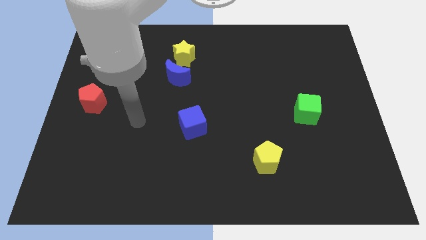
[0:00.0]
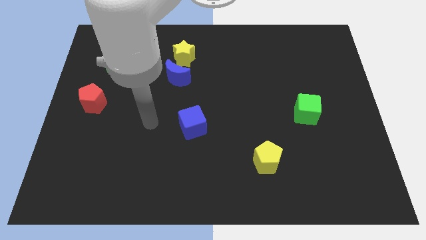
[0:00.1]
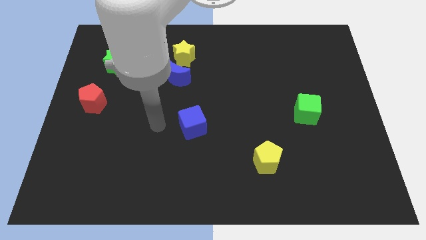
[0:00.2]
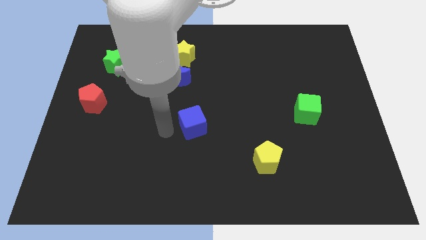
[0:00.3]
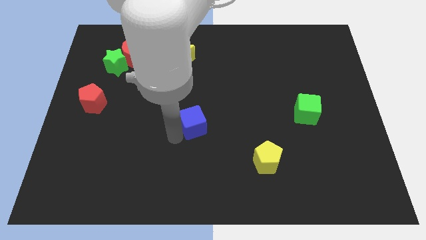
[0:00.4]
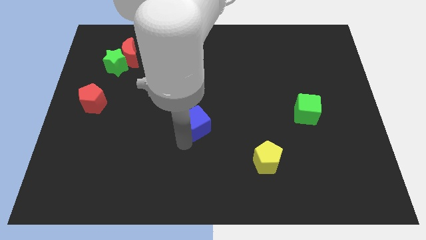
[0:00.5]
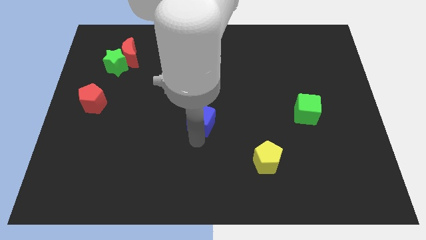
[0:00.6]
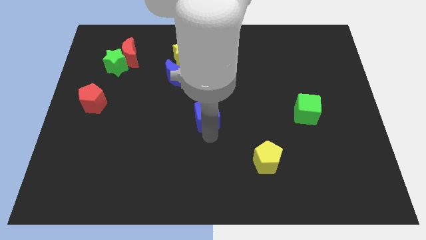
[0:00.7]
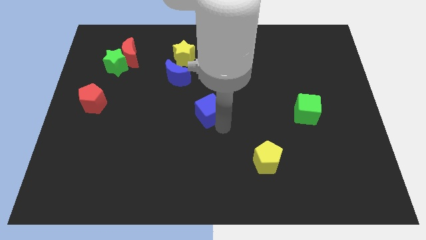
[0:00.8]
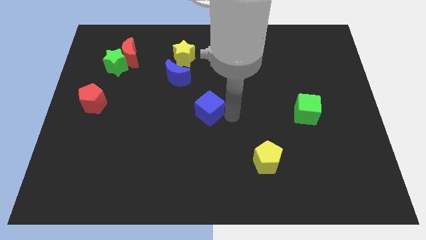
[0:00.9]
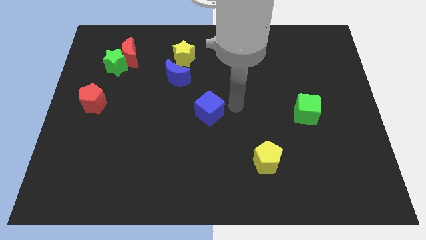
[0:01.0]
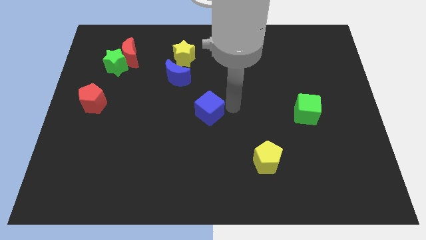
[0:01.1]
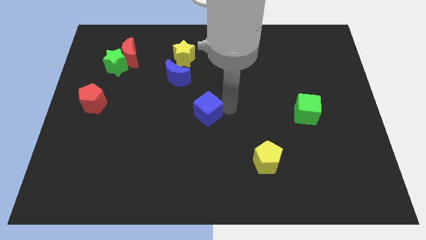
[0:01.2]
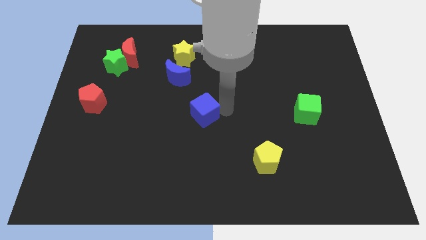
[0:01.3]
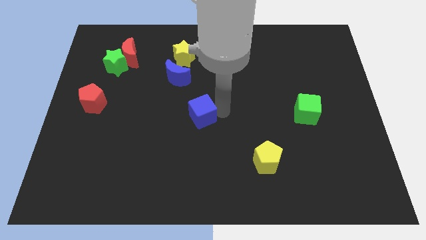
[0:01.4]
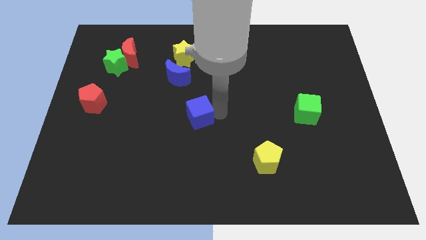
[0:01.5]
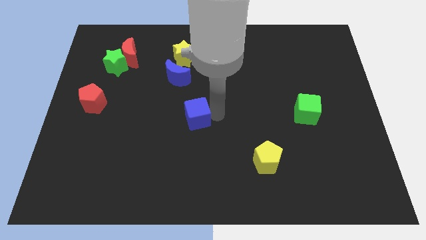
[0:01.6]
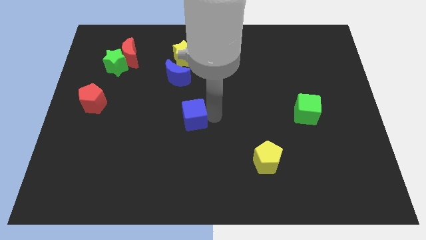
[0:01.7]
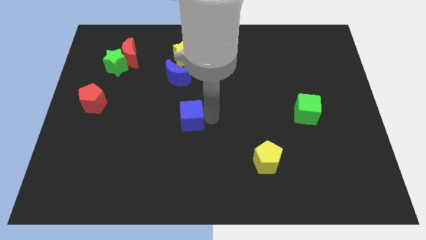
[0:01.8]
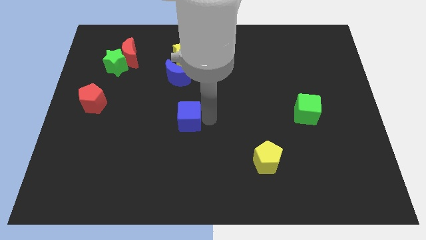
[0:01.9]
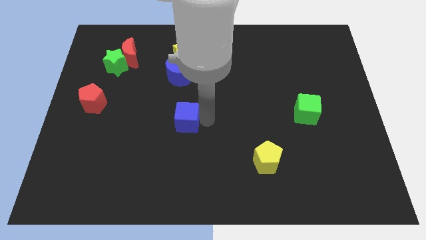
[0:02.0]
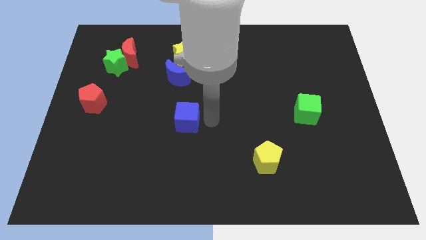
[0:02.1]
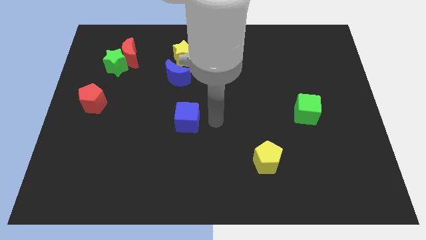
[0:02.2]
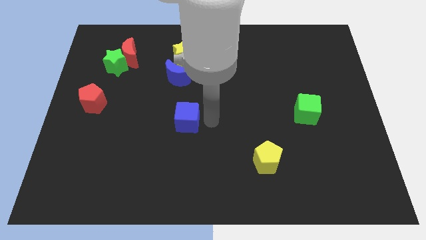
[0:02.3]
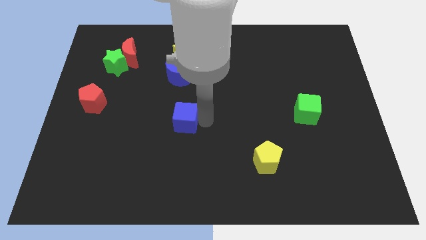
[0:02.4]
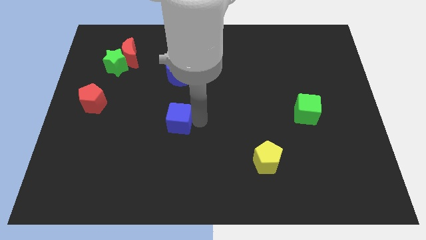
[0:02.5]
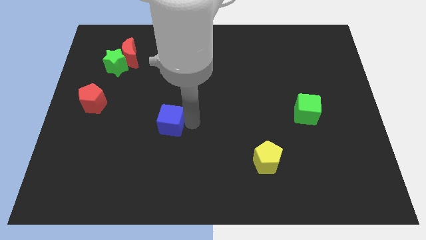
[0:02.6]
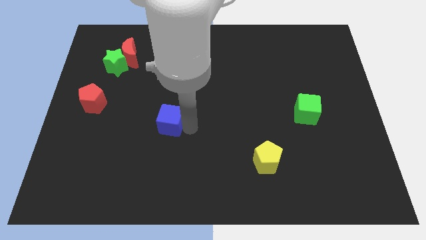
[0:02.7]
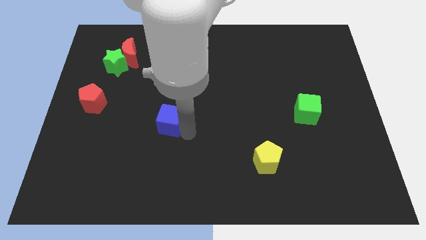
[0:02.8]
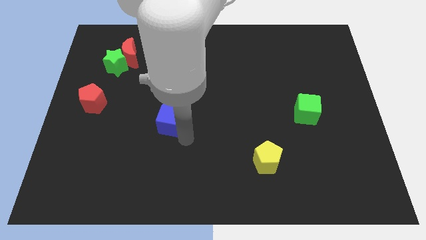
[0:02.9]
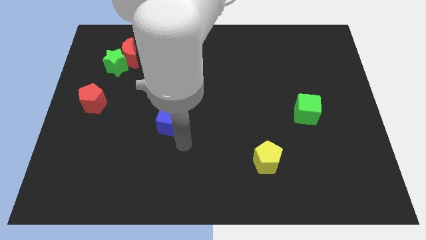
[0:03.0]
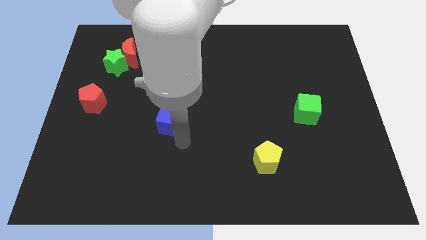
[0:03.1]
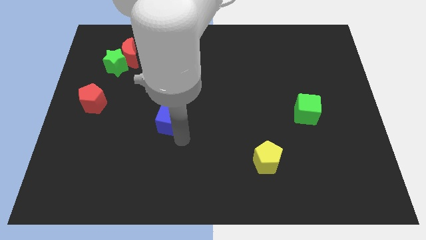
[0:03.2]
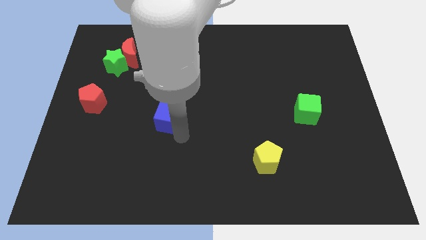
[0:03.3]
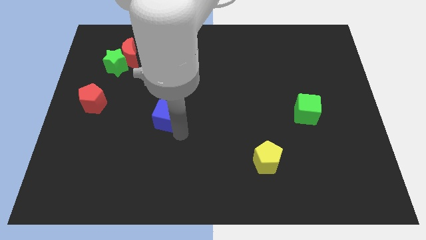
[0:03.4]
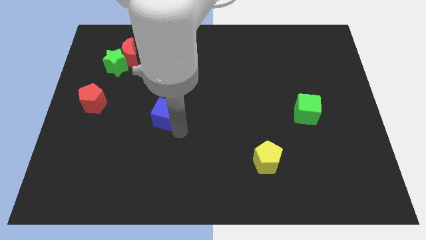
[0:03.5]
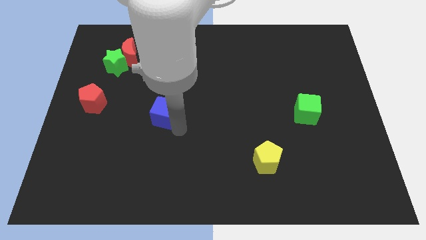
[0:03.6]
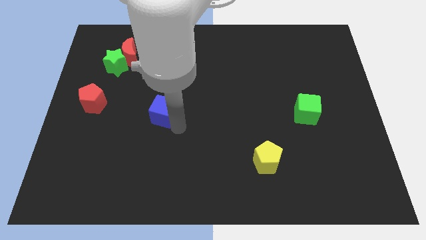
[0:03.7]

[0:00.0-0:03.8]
push the blue cube up and left diagonally somewhat

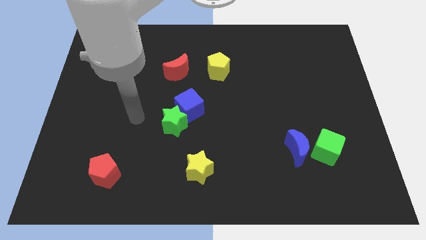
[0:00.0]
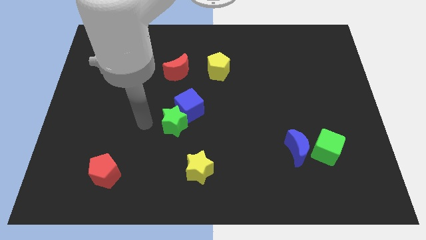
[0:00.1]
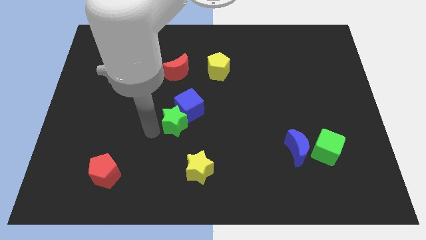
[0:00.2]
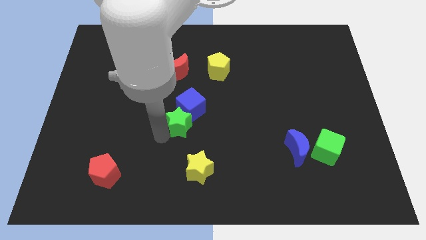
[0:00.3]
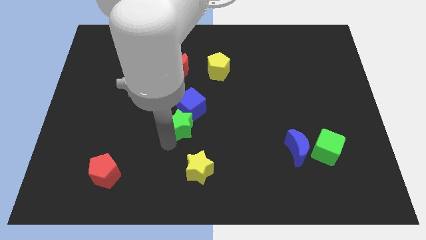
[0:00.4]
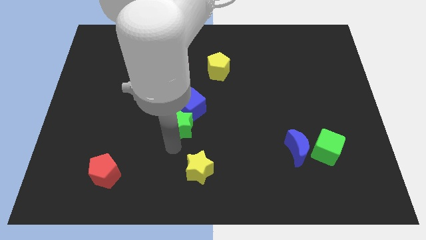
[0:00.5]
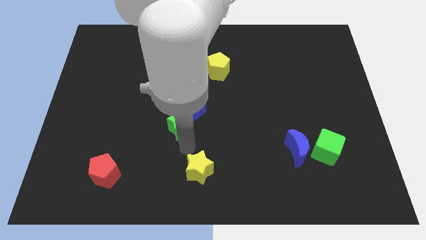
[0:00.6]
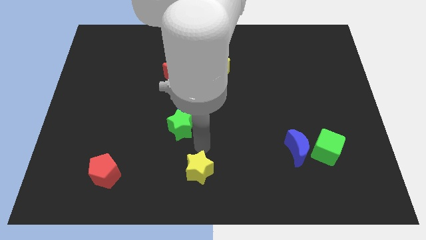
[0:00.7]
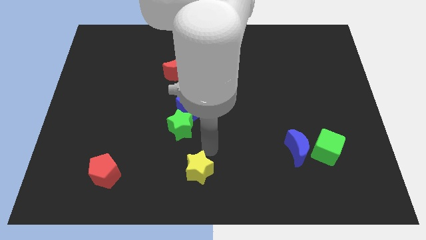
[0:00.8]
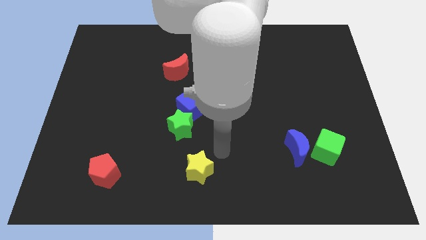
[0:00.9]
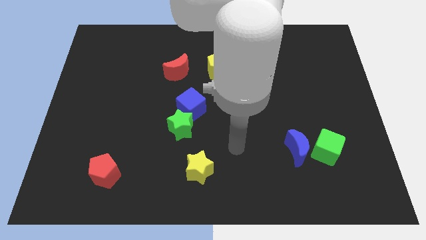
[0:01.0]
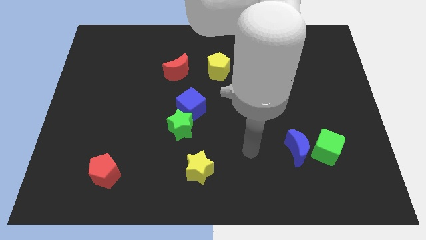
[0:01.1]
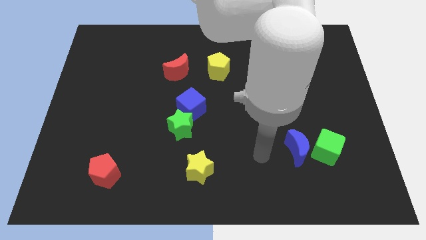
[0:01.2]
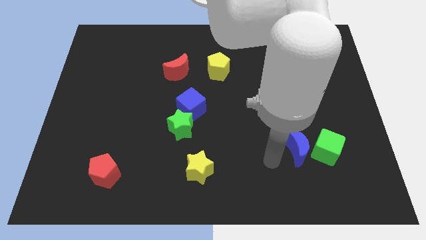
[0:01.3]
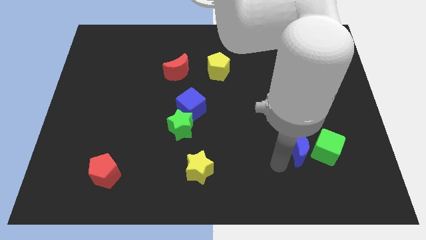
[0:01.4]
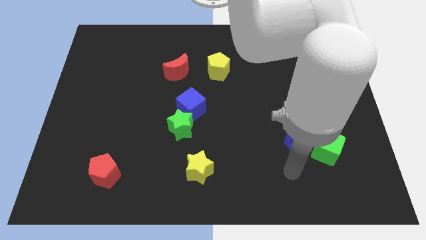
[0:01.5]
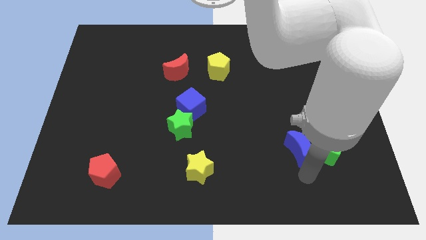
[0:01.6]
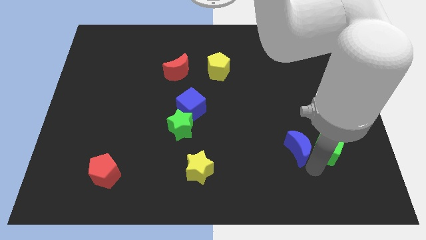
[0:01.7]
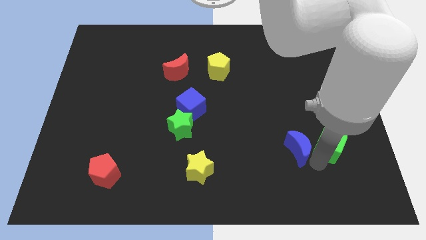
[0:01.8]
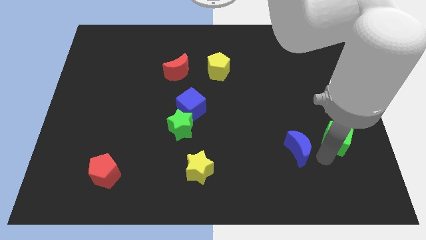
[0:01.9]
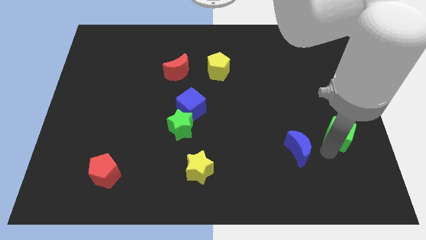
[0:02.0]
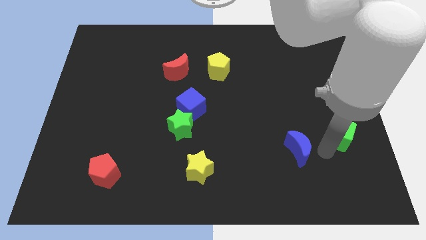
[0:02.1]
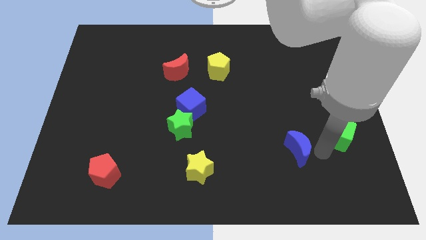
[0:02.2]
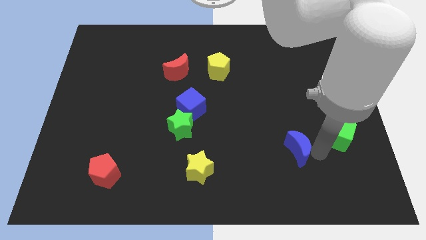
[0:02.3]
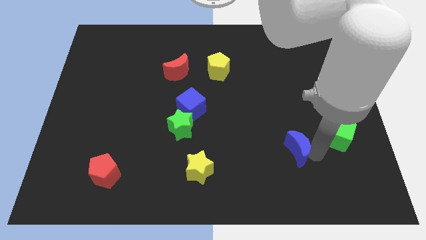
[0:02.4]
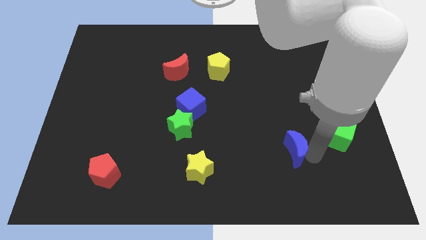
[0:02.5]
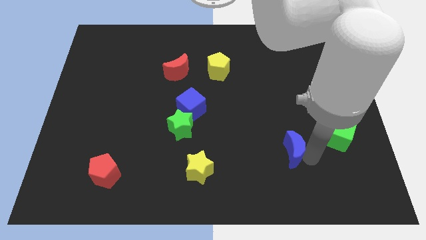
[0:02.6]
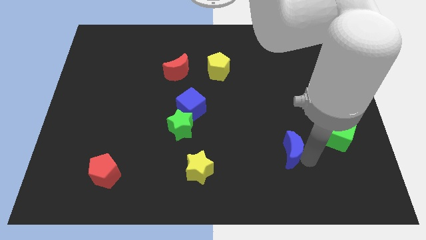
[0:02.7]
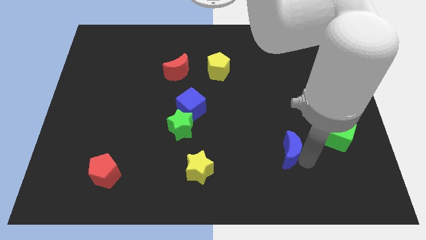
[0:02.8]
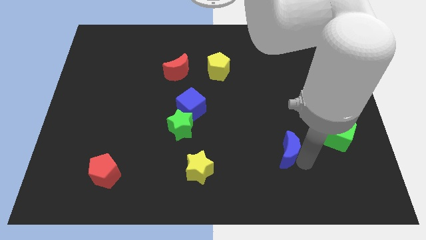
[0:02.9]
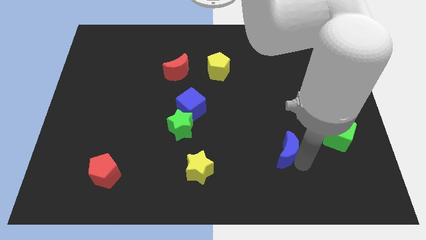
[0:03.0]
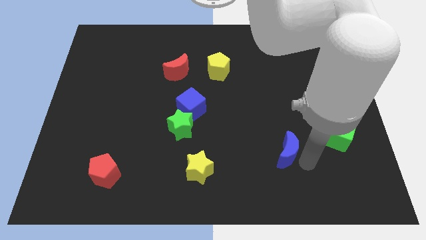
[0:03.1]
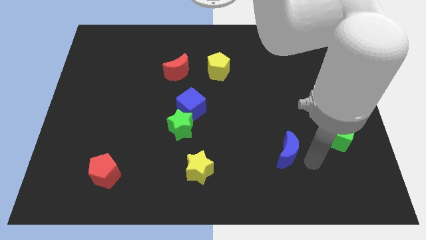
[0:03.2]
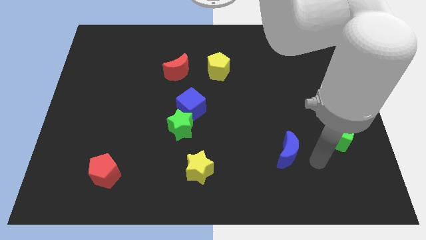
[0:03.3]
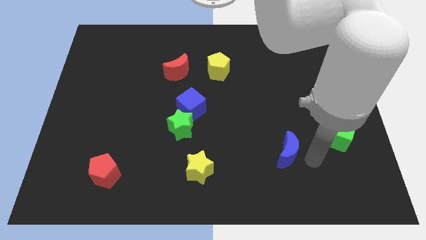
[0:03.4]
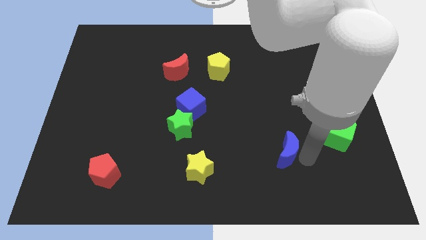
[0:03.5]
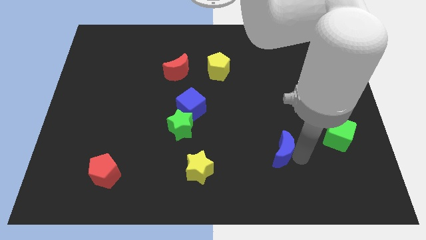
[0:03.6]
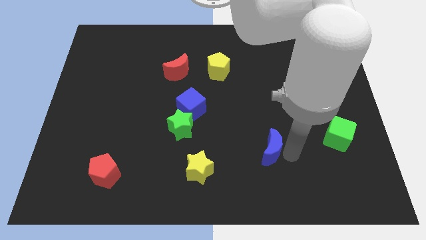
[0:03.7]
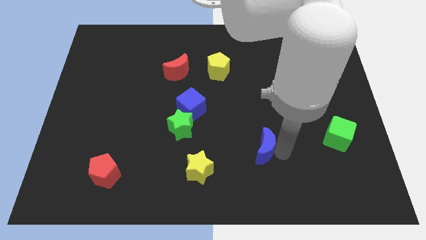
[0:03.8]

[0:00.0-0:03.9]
slightly move the blue moon left
